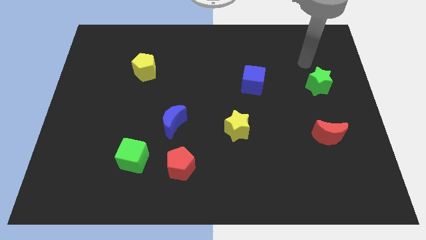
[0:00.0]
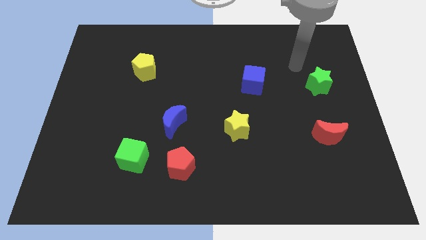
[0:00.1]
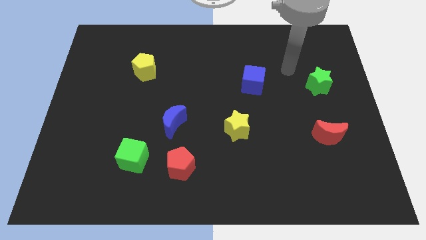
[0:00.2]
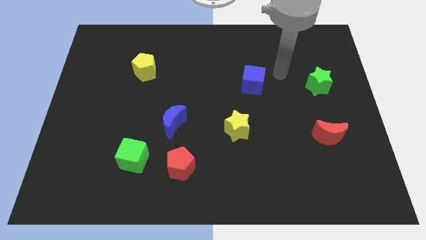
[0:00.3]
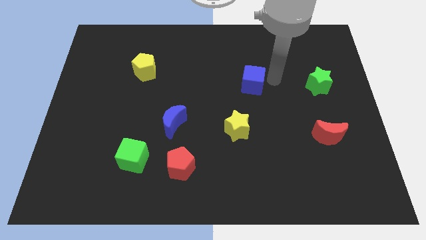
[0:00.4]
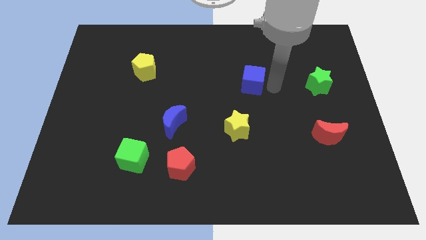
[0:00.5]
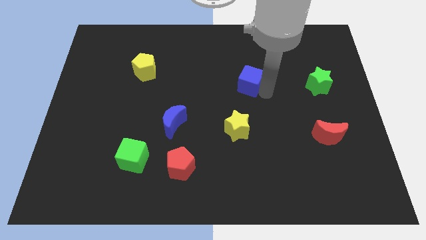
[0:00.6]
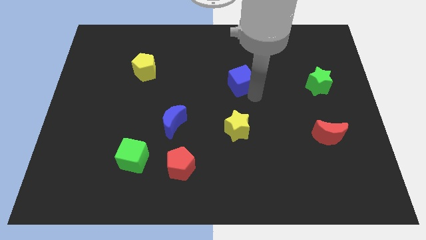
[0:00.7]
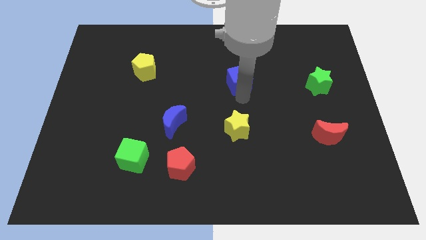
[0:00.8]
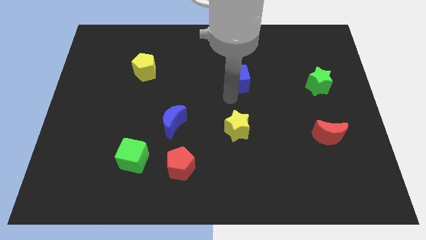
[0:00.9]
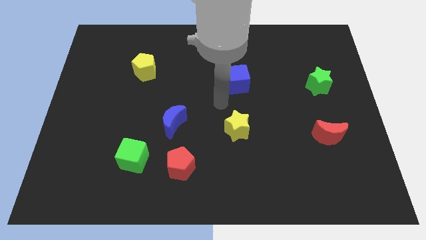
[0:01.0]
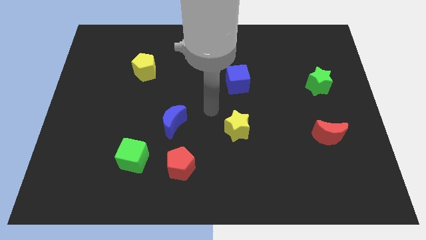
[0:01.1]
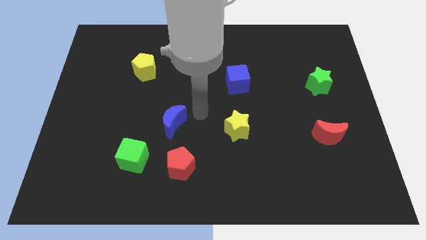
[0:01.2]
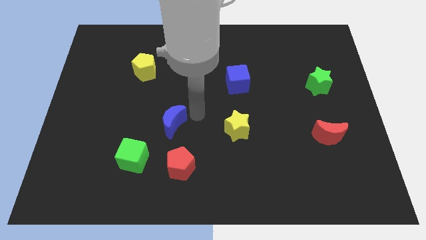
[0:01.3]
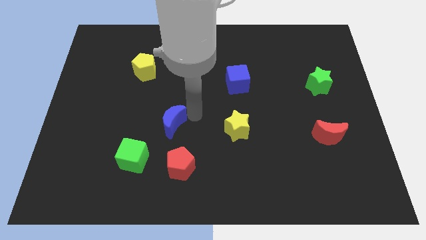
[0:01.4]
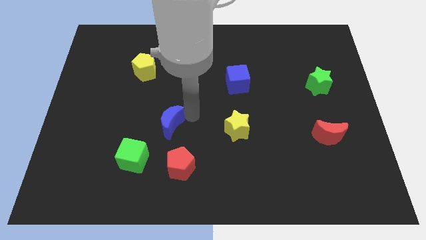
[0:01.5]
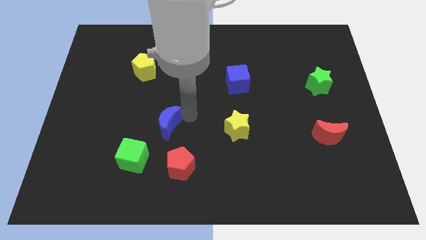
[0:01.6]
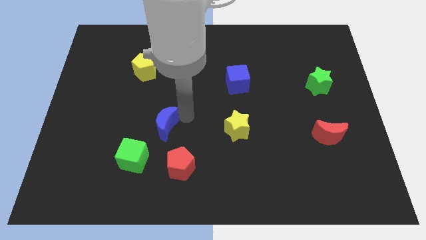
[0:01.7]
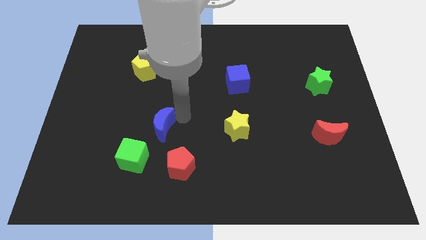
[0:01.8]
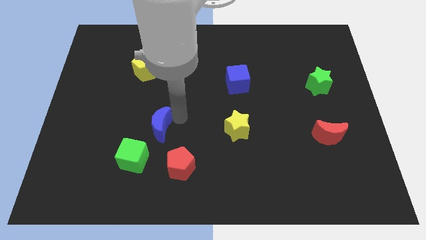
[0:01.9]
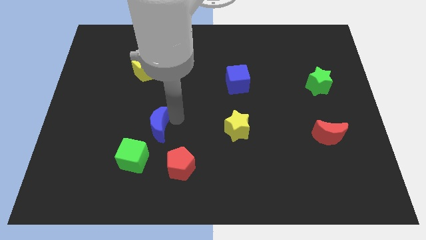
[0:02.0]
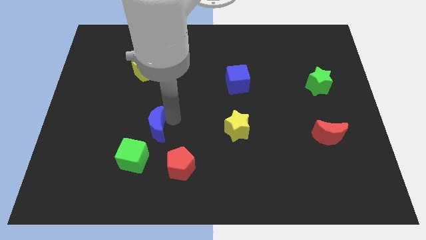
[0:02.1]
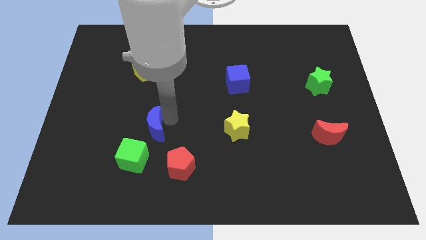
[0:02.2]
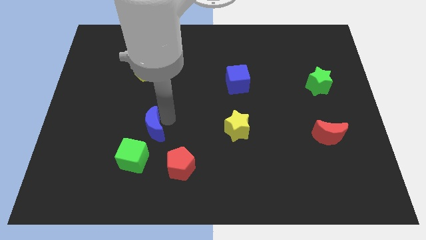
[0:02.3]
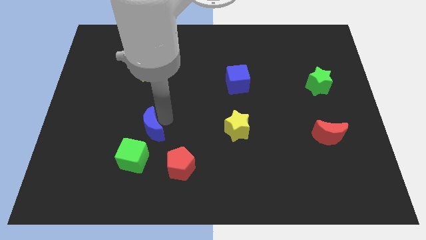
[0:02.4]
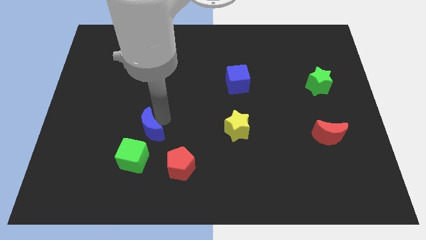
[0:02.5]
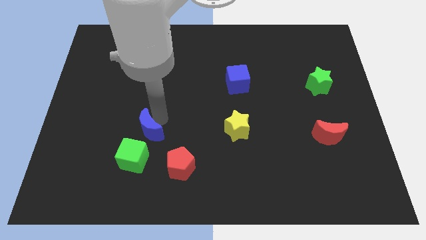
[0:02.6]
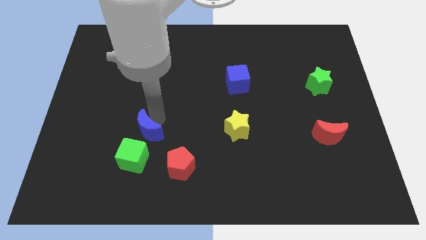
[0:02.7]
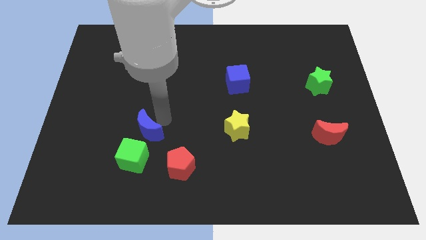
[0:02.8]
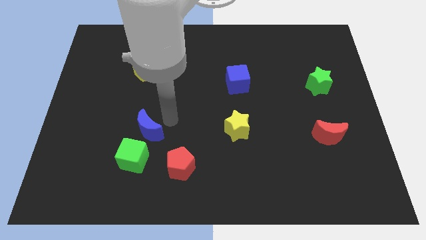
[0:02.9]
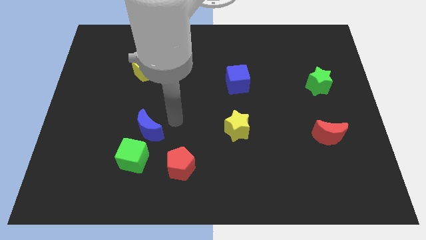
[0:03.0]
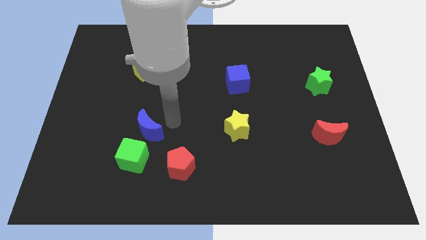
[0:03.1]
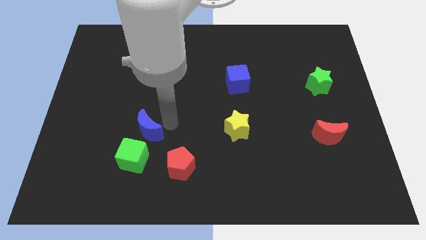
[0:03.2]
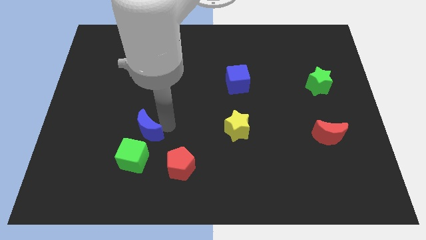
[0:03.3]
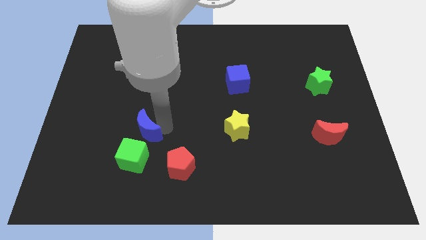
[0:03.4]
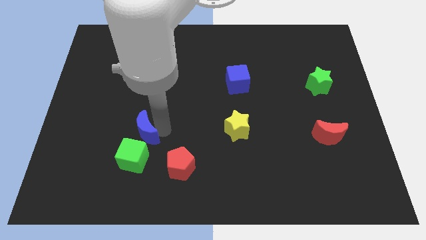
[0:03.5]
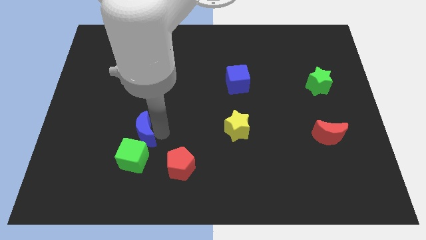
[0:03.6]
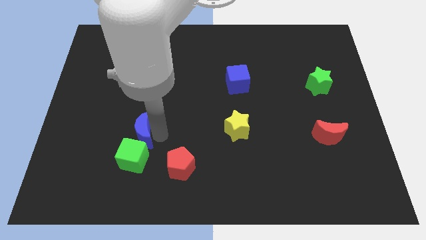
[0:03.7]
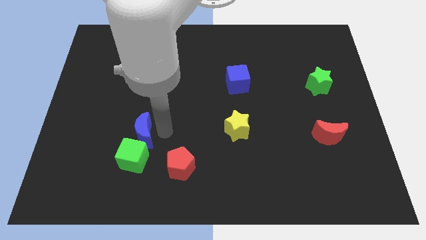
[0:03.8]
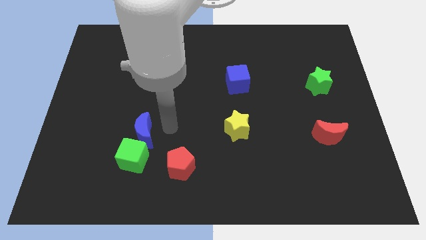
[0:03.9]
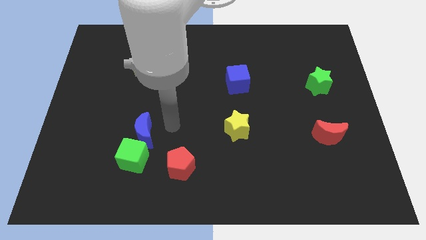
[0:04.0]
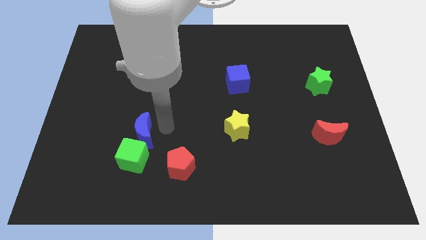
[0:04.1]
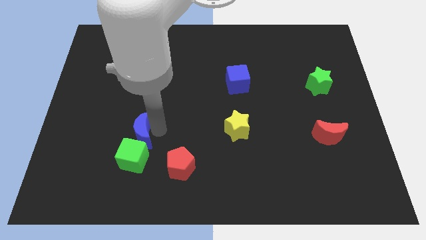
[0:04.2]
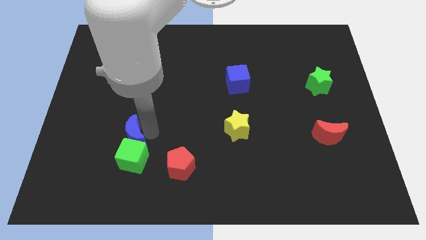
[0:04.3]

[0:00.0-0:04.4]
move the blue moon somewhat diagonally down and to the left

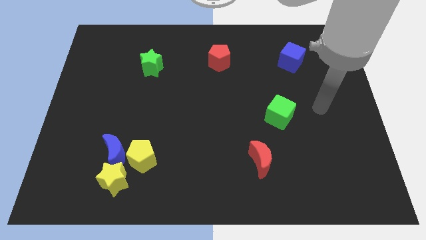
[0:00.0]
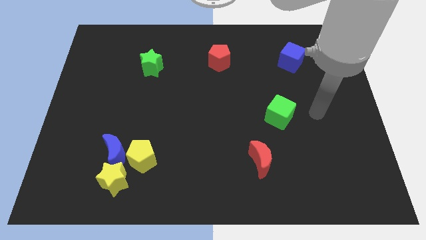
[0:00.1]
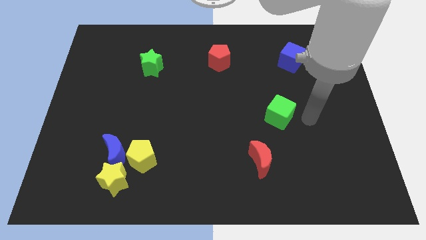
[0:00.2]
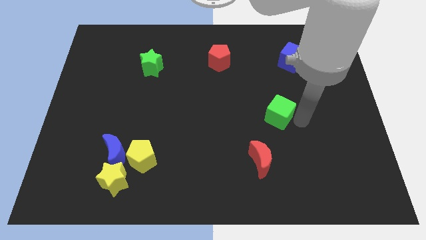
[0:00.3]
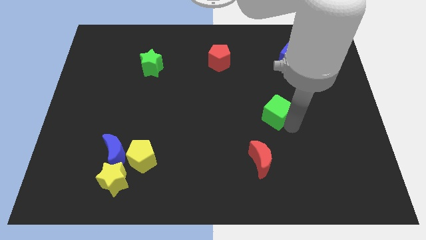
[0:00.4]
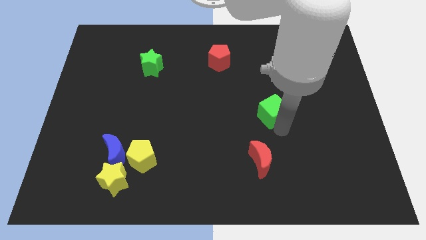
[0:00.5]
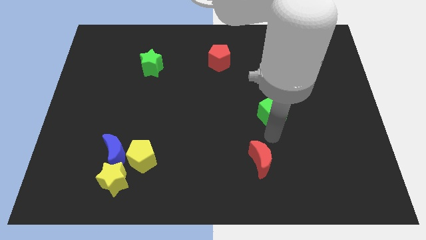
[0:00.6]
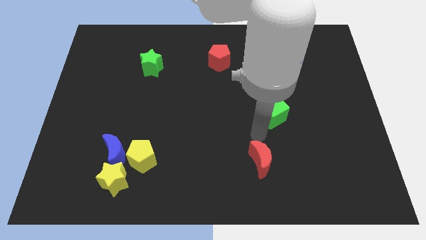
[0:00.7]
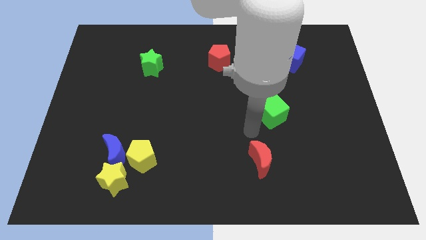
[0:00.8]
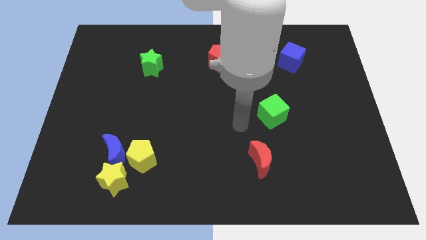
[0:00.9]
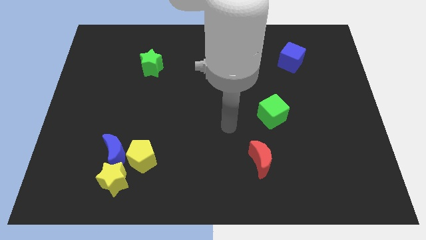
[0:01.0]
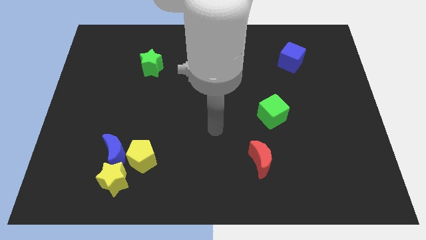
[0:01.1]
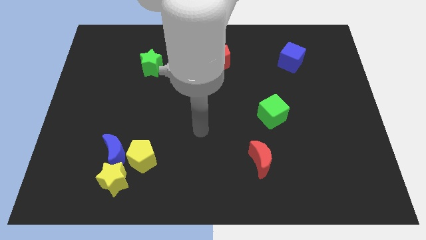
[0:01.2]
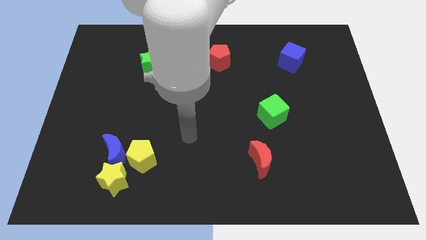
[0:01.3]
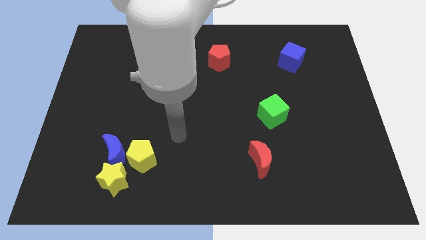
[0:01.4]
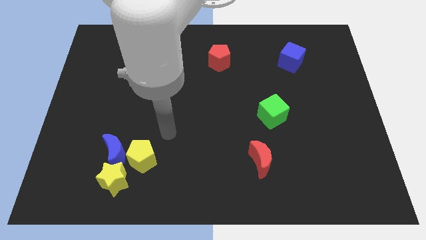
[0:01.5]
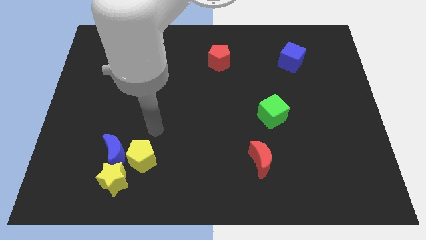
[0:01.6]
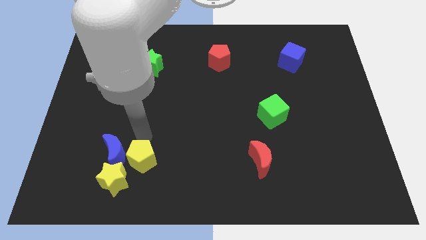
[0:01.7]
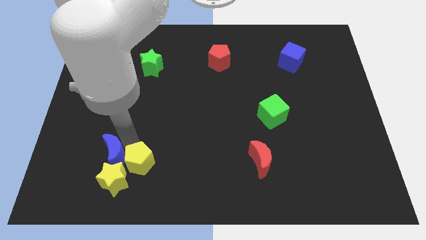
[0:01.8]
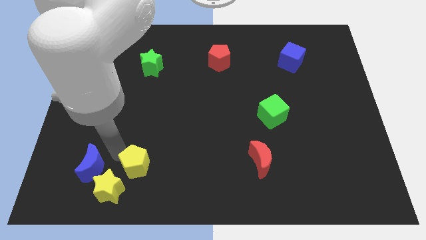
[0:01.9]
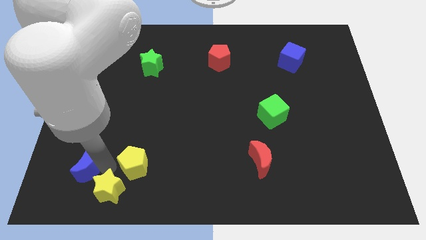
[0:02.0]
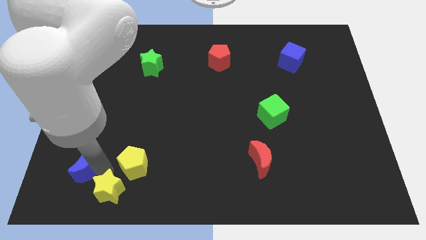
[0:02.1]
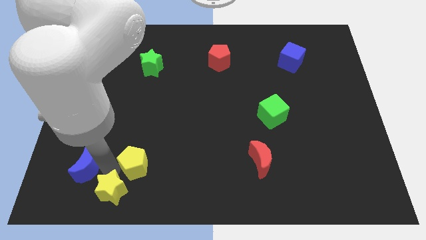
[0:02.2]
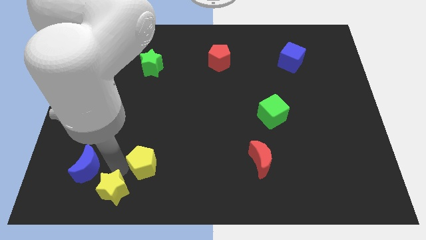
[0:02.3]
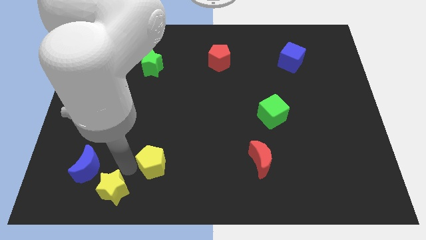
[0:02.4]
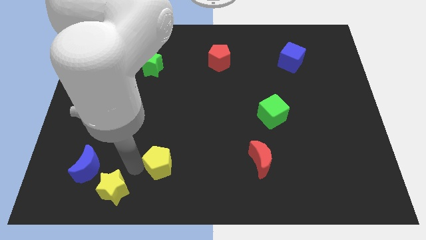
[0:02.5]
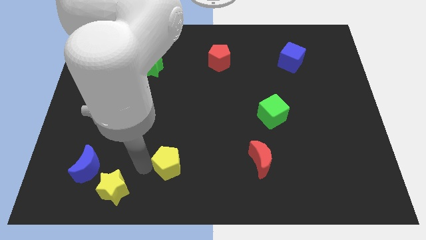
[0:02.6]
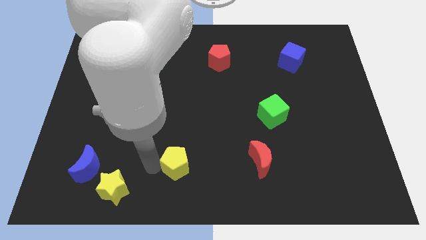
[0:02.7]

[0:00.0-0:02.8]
move the yellow pentagon to the right slightly

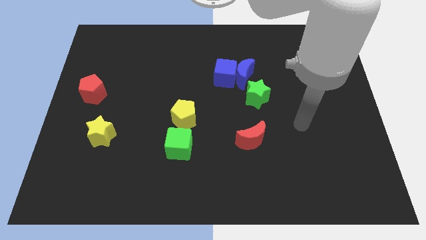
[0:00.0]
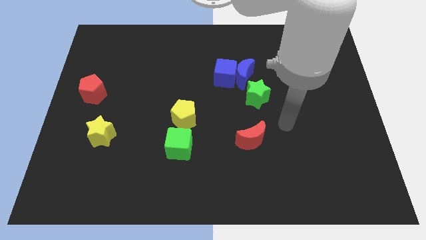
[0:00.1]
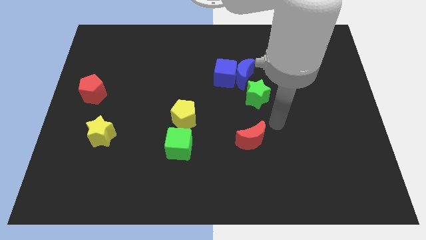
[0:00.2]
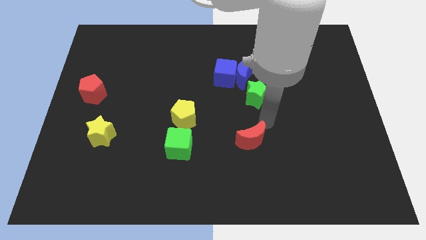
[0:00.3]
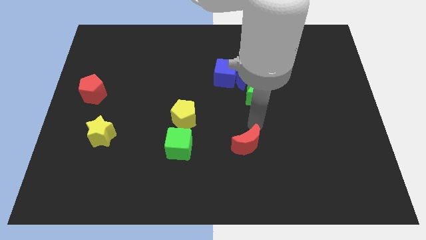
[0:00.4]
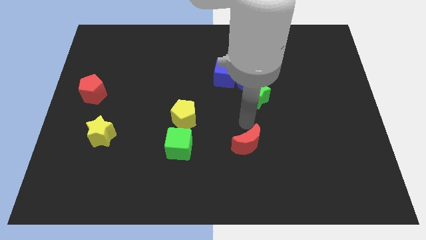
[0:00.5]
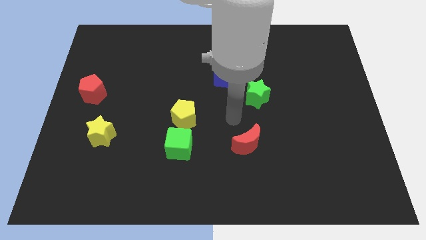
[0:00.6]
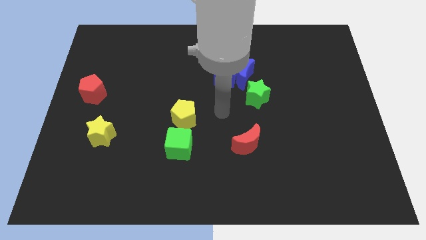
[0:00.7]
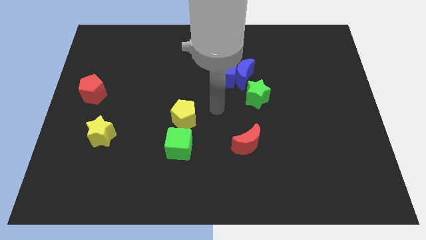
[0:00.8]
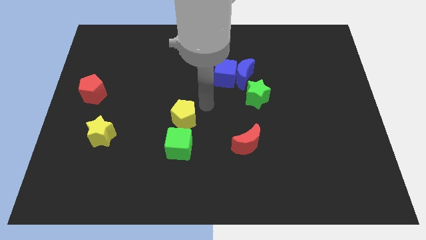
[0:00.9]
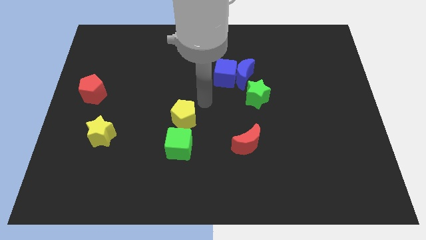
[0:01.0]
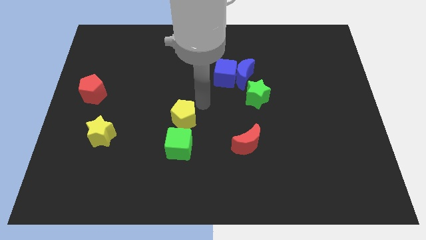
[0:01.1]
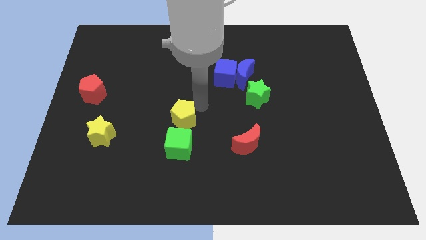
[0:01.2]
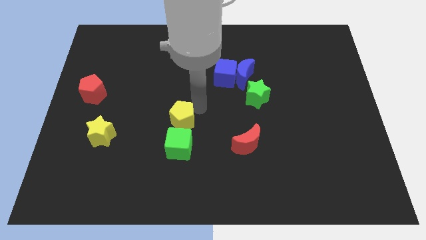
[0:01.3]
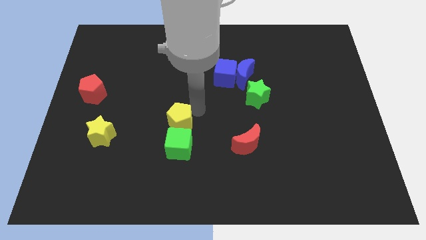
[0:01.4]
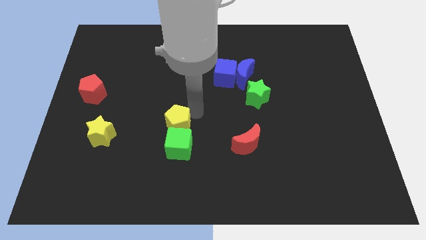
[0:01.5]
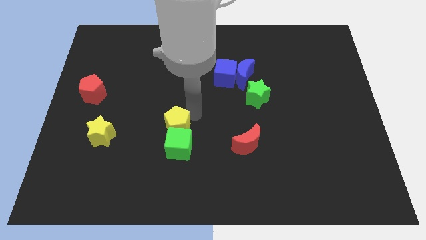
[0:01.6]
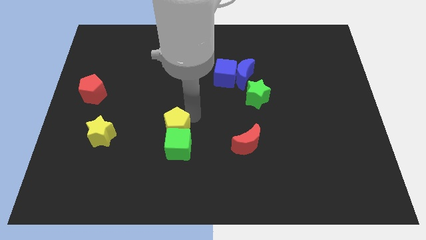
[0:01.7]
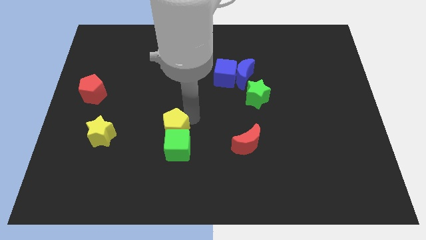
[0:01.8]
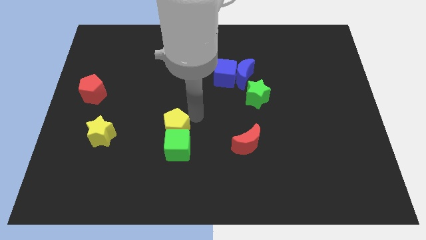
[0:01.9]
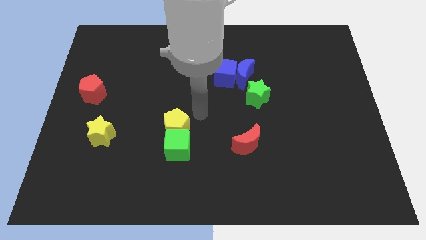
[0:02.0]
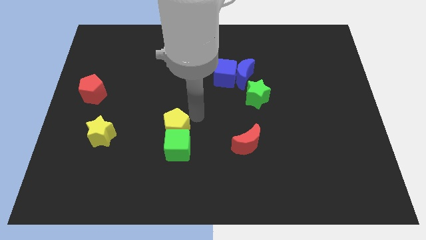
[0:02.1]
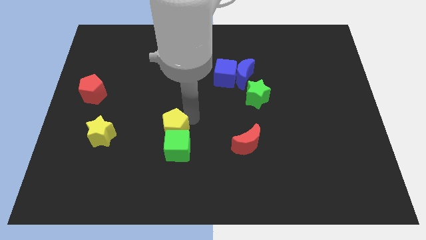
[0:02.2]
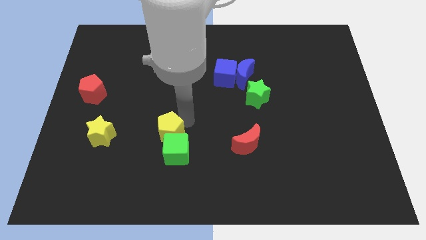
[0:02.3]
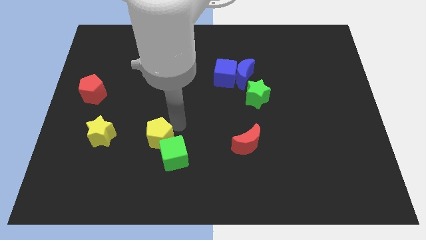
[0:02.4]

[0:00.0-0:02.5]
slightly slide the yellow pentagon downwards and then to the left
